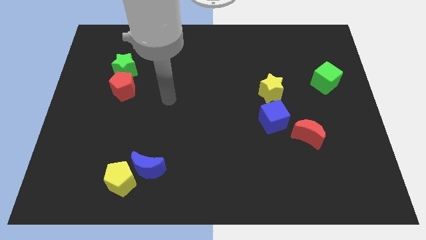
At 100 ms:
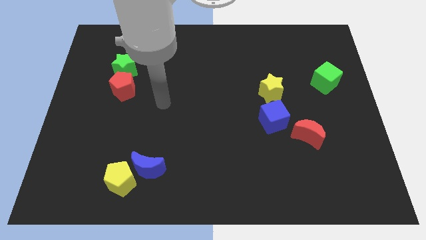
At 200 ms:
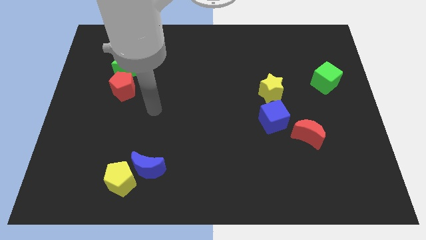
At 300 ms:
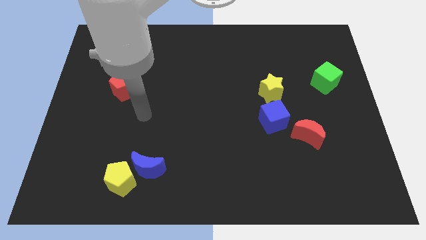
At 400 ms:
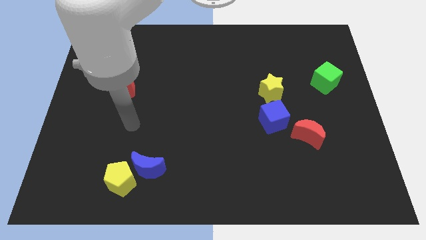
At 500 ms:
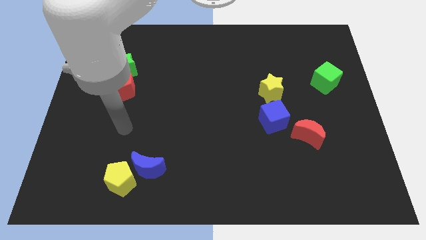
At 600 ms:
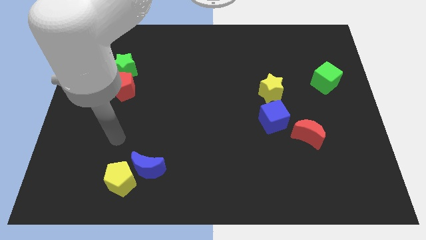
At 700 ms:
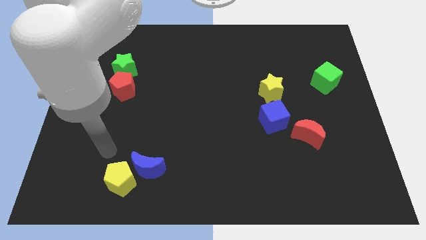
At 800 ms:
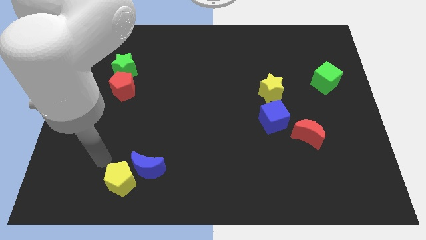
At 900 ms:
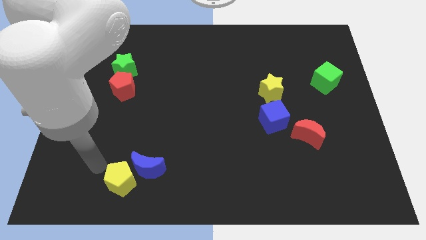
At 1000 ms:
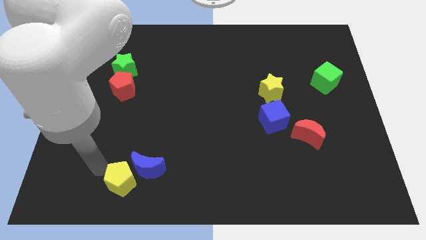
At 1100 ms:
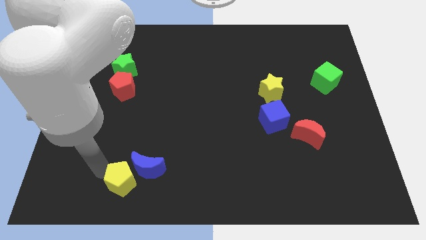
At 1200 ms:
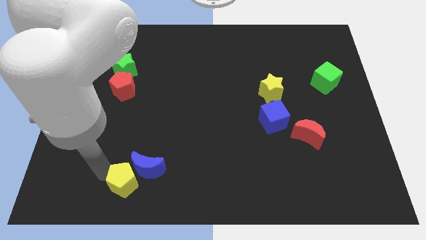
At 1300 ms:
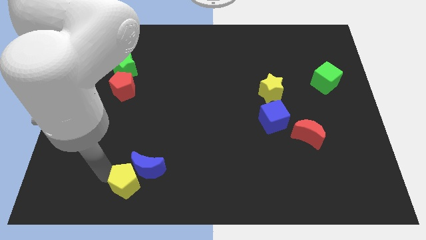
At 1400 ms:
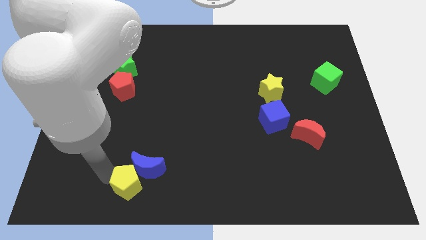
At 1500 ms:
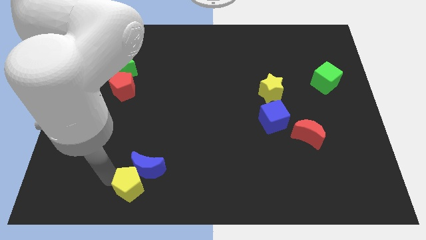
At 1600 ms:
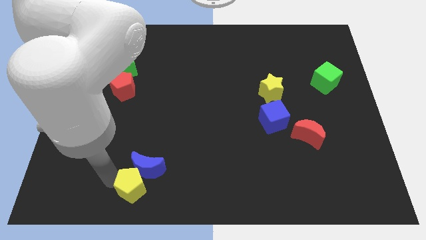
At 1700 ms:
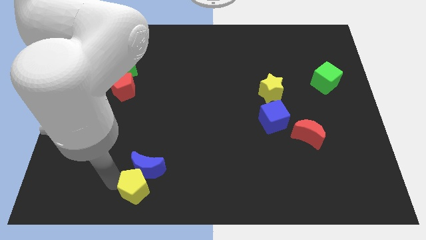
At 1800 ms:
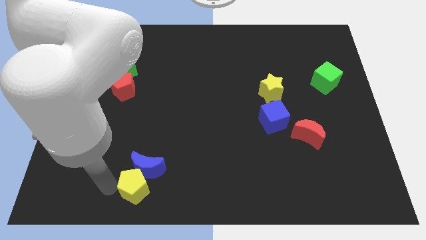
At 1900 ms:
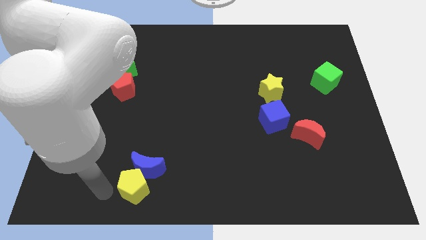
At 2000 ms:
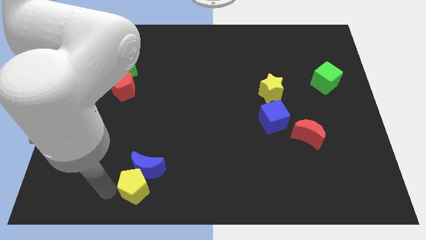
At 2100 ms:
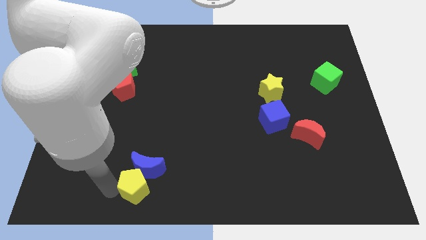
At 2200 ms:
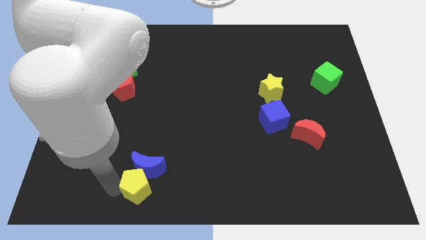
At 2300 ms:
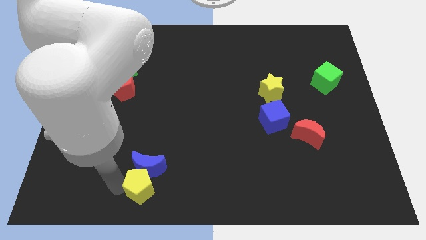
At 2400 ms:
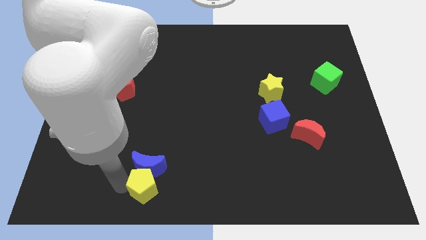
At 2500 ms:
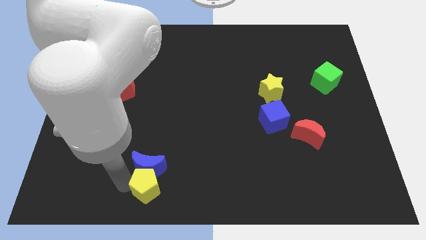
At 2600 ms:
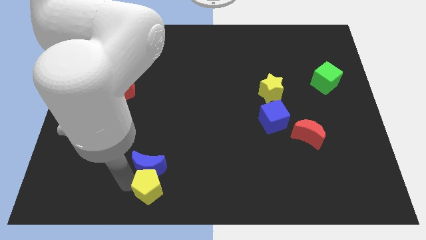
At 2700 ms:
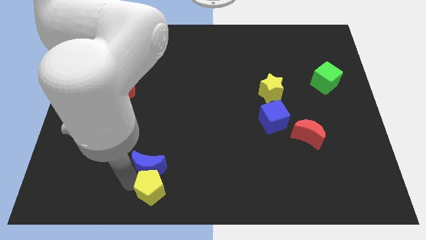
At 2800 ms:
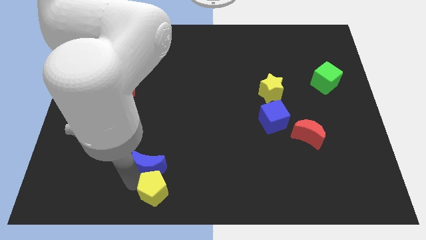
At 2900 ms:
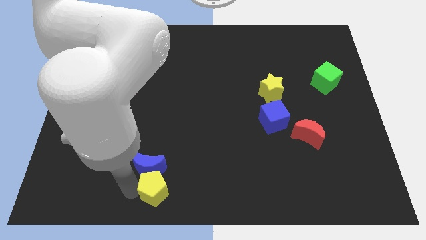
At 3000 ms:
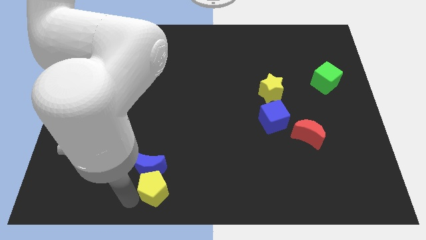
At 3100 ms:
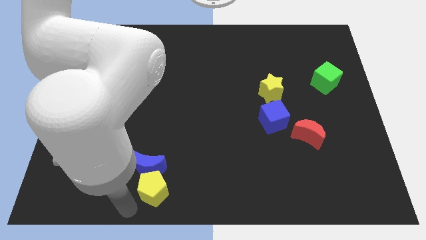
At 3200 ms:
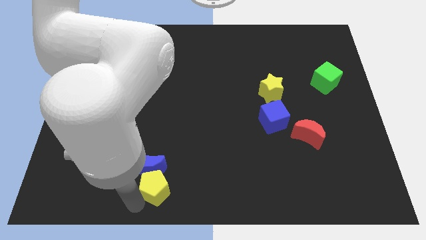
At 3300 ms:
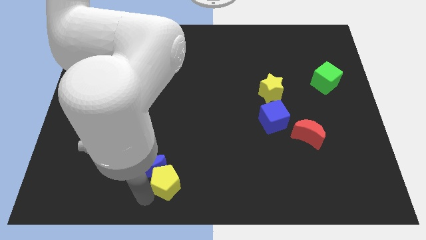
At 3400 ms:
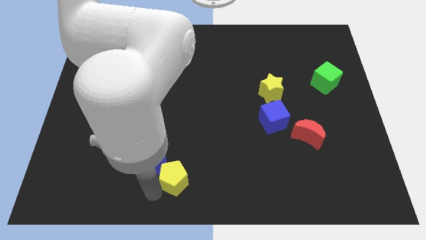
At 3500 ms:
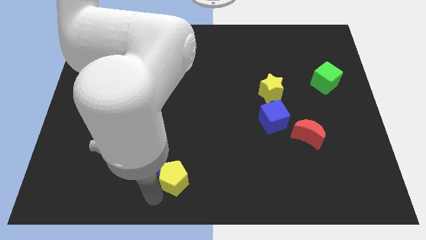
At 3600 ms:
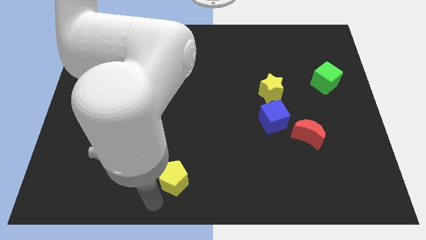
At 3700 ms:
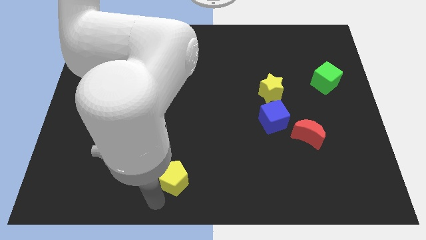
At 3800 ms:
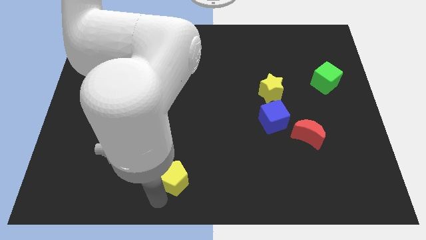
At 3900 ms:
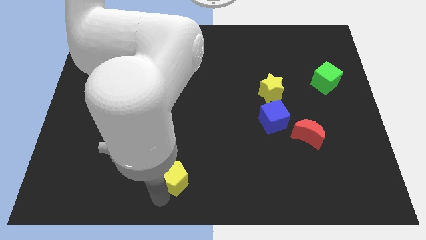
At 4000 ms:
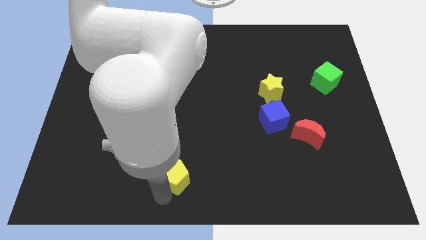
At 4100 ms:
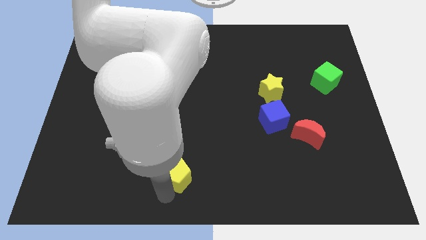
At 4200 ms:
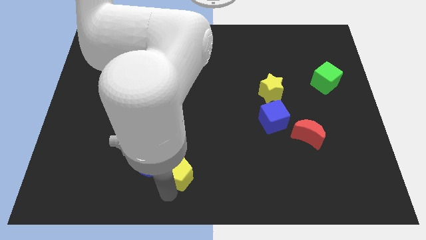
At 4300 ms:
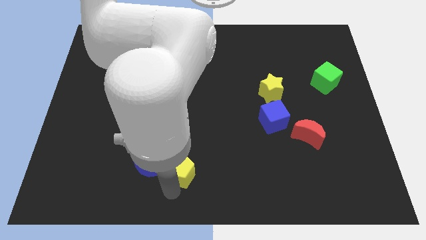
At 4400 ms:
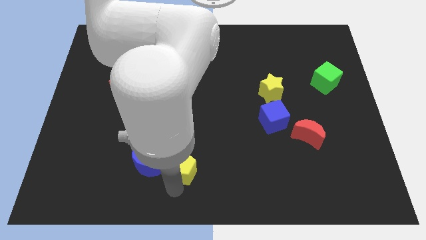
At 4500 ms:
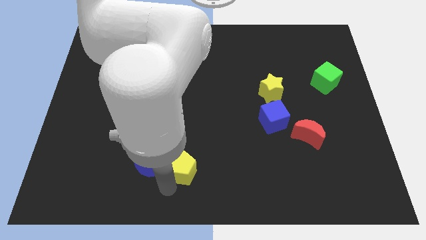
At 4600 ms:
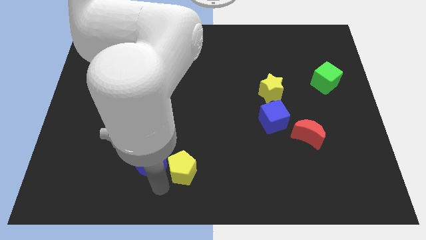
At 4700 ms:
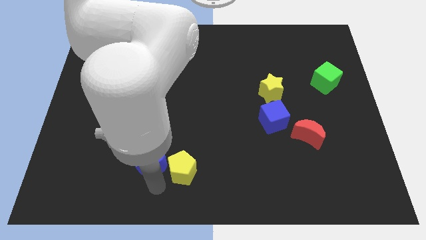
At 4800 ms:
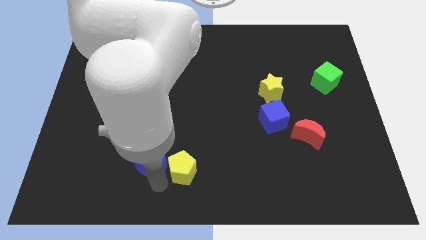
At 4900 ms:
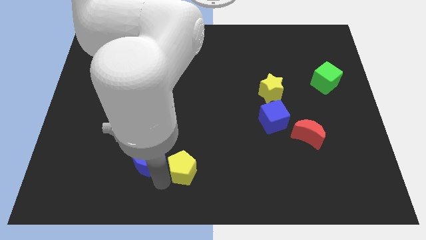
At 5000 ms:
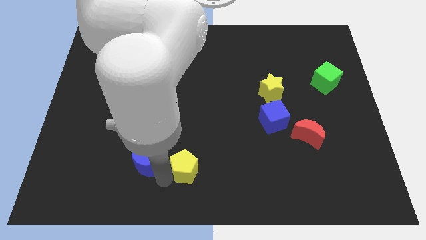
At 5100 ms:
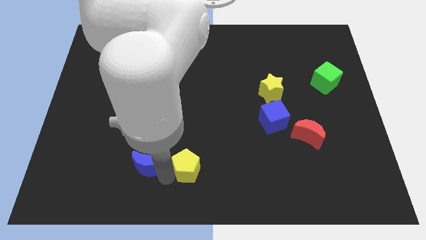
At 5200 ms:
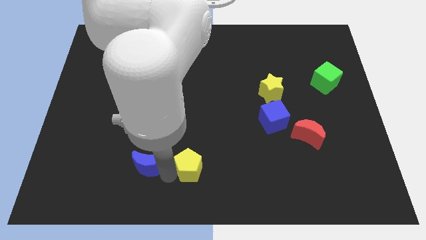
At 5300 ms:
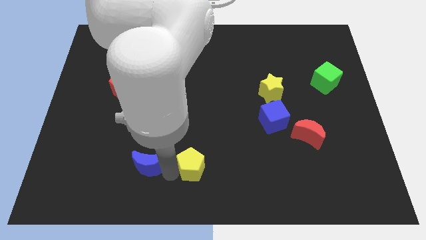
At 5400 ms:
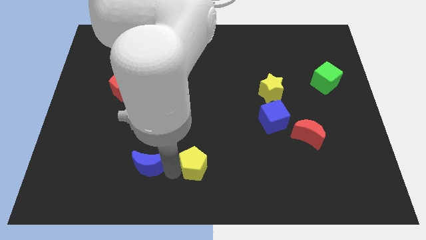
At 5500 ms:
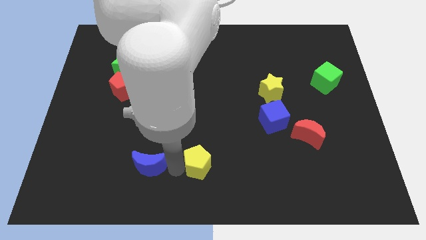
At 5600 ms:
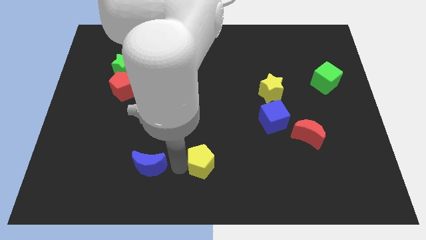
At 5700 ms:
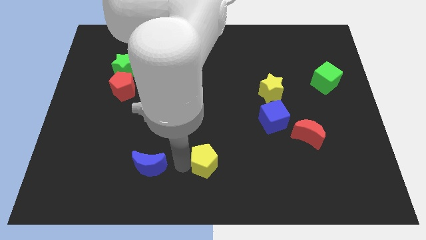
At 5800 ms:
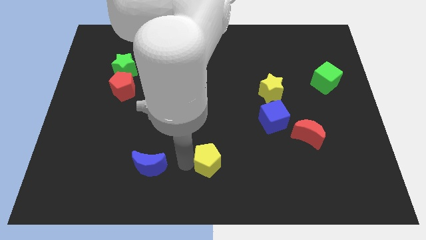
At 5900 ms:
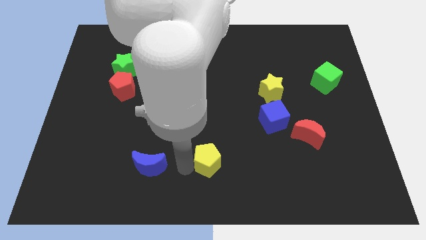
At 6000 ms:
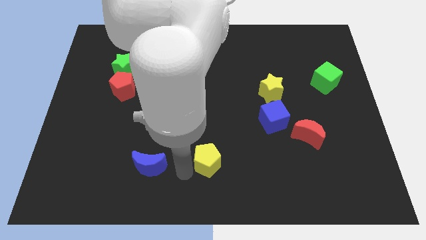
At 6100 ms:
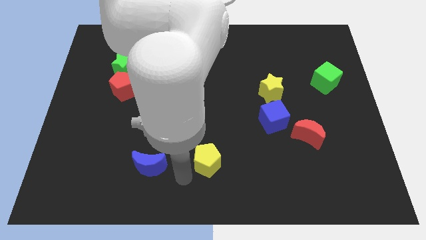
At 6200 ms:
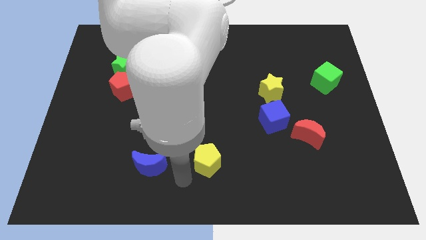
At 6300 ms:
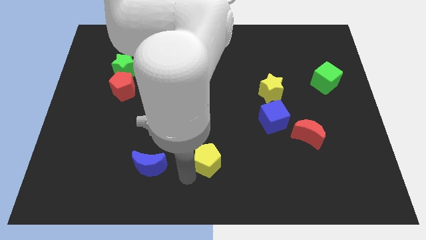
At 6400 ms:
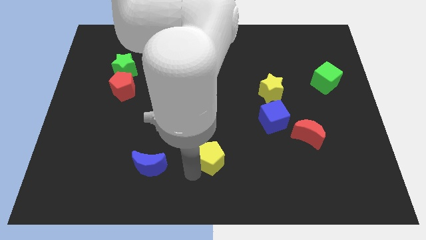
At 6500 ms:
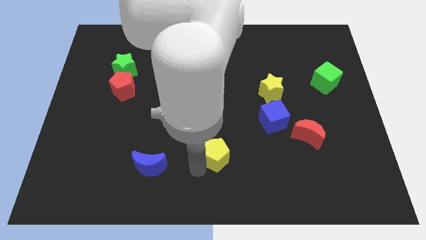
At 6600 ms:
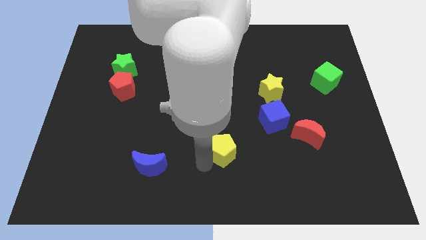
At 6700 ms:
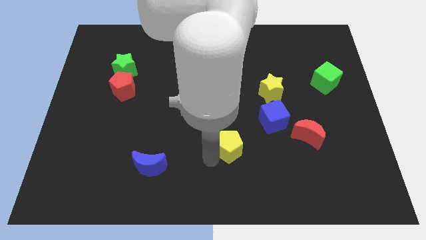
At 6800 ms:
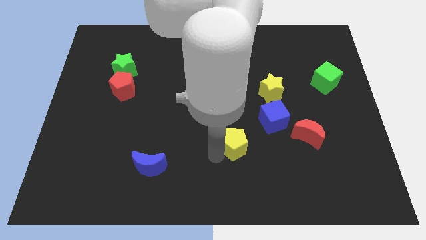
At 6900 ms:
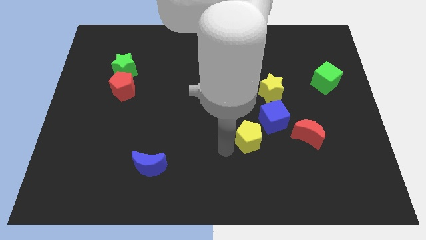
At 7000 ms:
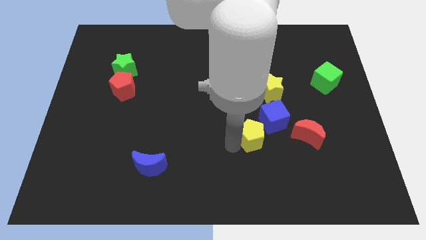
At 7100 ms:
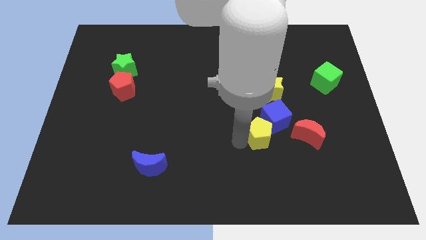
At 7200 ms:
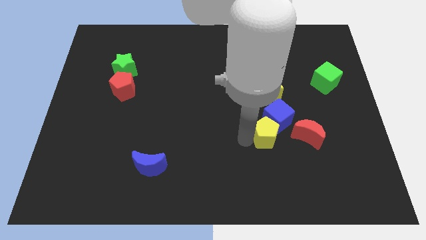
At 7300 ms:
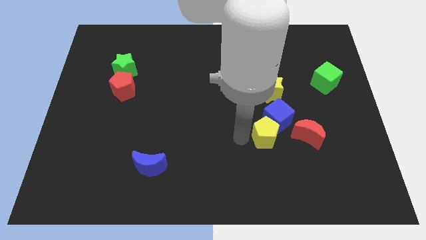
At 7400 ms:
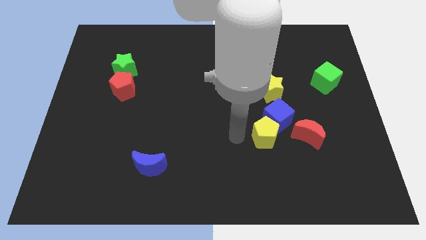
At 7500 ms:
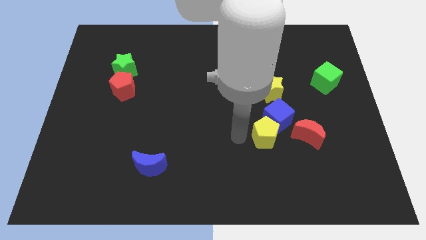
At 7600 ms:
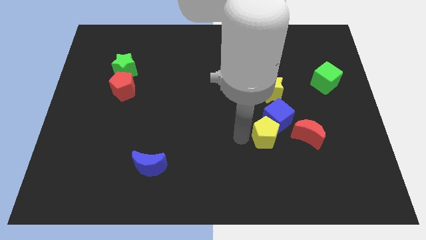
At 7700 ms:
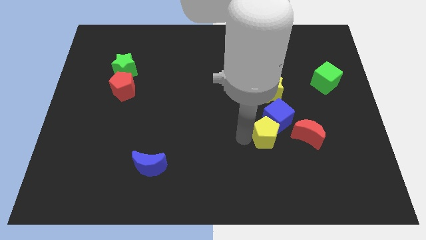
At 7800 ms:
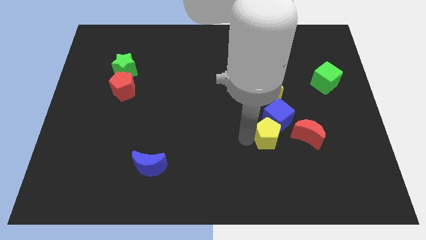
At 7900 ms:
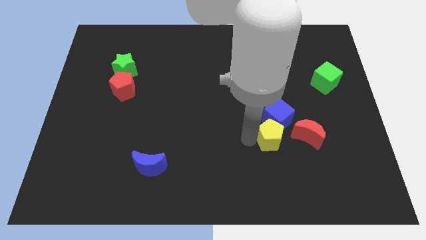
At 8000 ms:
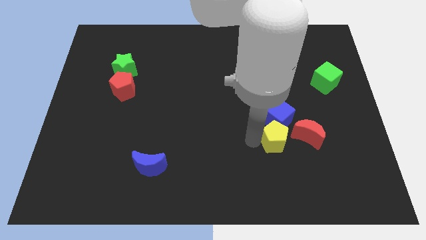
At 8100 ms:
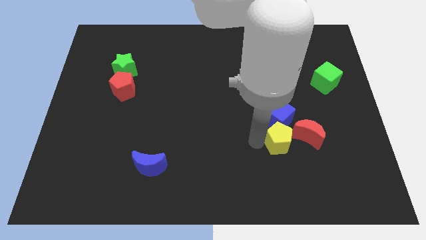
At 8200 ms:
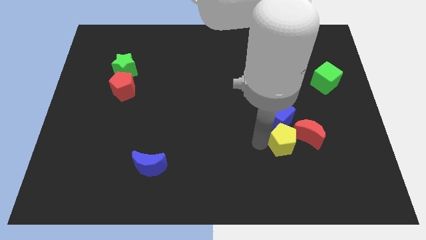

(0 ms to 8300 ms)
push the yellow pentagon towards the red moon

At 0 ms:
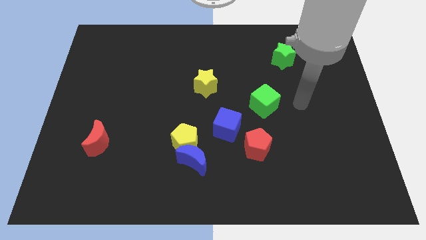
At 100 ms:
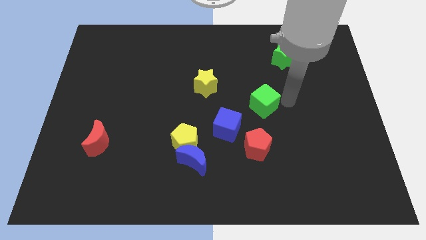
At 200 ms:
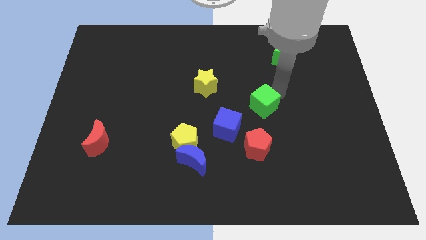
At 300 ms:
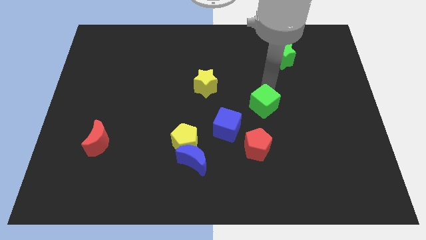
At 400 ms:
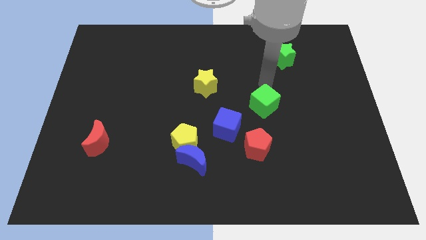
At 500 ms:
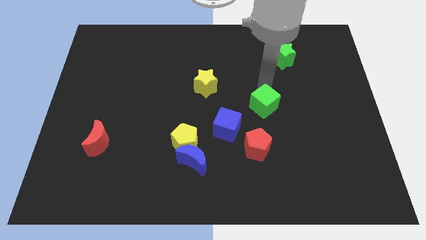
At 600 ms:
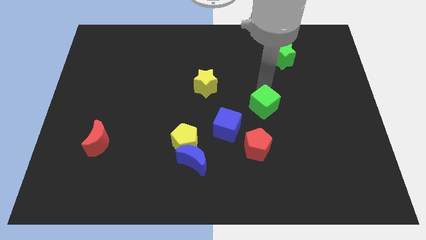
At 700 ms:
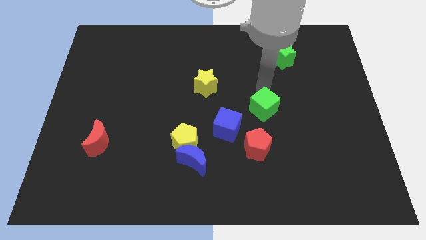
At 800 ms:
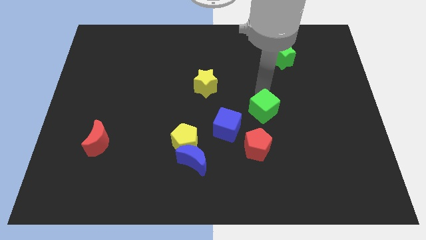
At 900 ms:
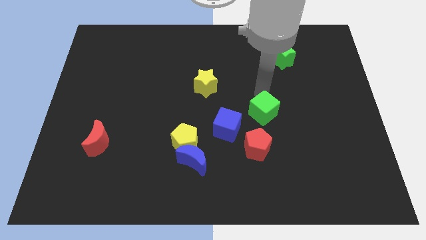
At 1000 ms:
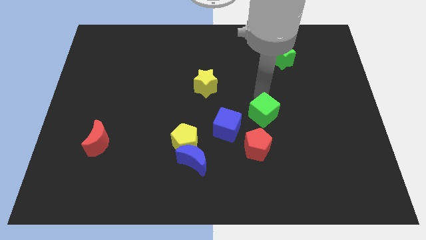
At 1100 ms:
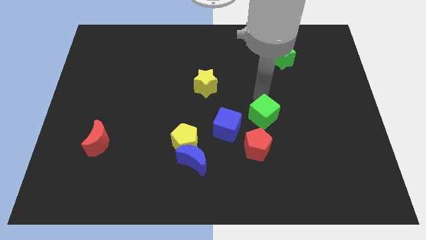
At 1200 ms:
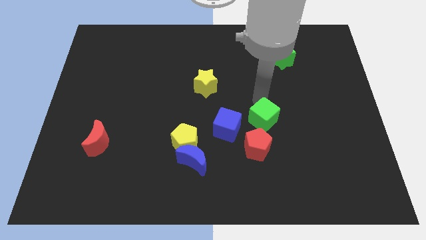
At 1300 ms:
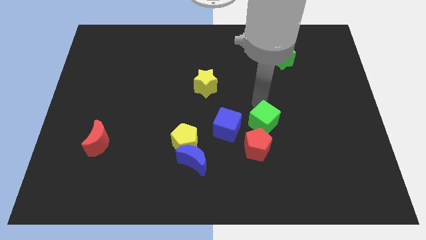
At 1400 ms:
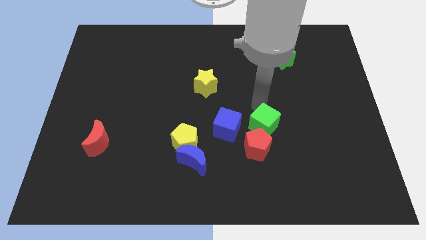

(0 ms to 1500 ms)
move the green cube to the red pentagon
